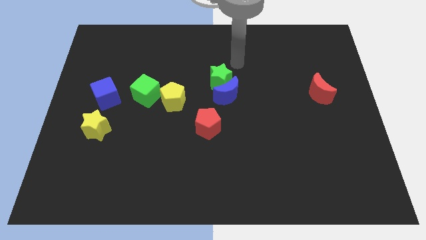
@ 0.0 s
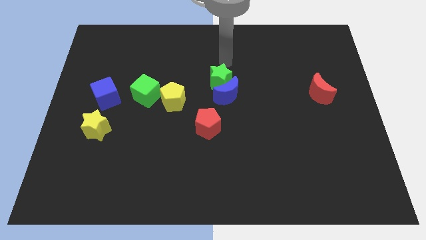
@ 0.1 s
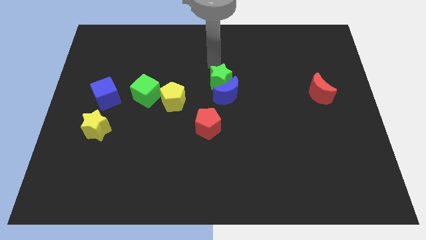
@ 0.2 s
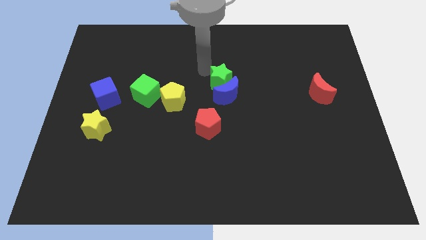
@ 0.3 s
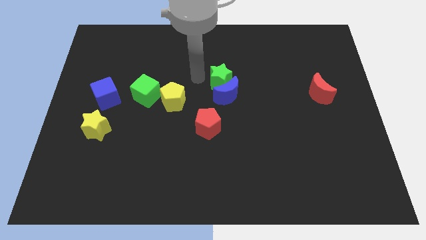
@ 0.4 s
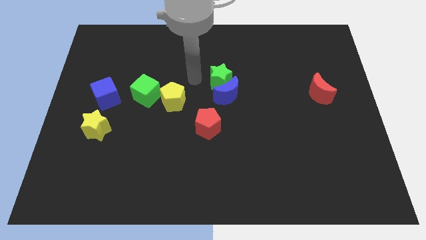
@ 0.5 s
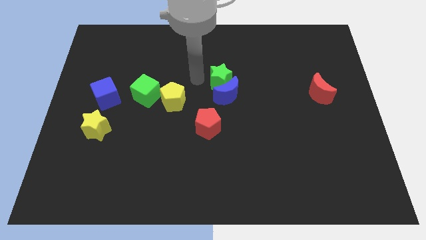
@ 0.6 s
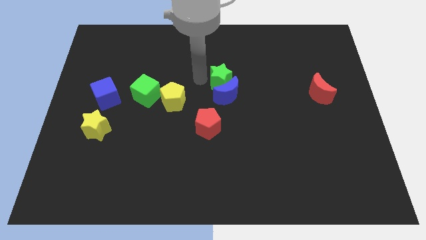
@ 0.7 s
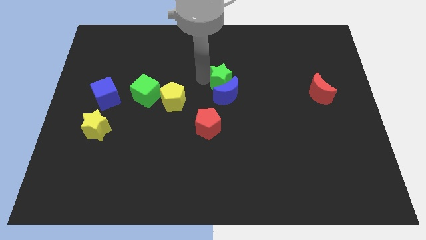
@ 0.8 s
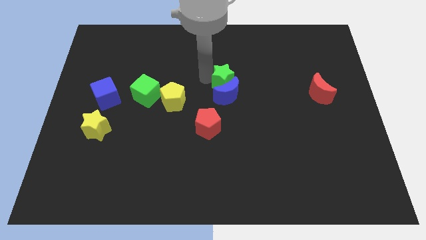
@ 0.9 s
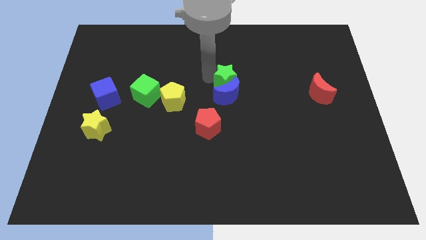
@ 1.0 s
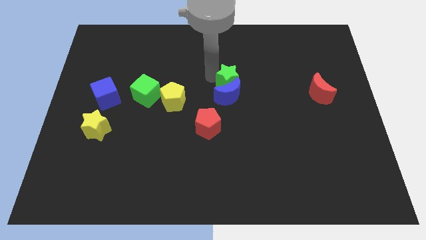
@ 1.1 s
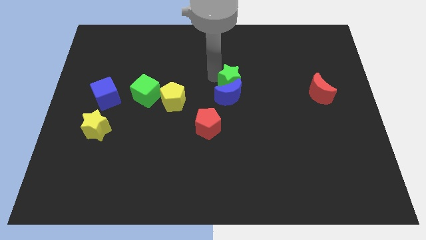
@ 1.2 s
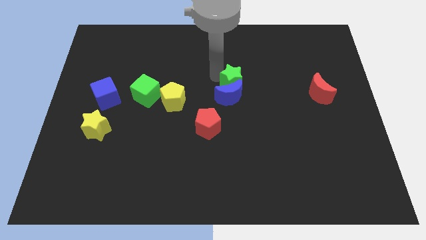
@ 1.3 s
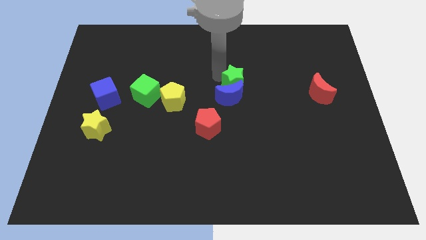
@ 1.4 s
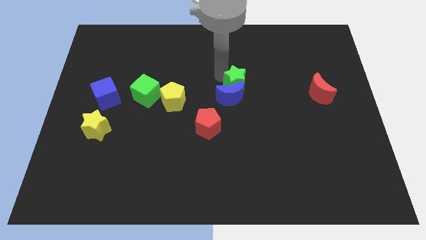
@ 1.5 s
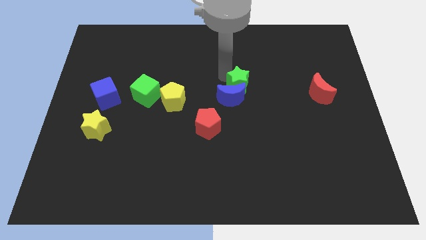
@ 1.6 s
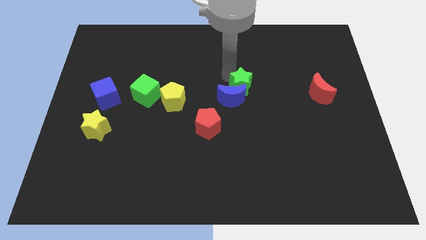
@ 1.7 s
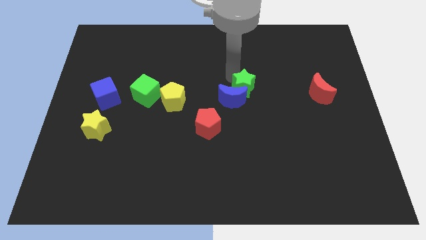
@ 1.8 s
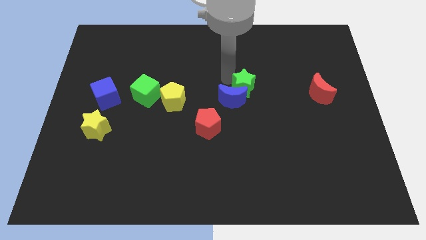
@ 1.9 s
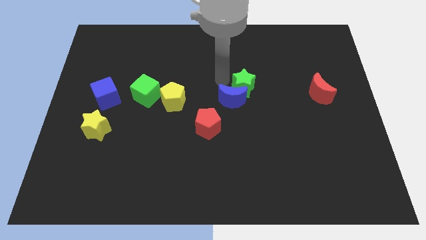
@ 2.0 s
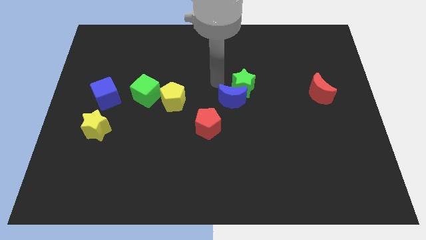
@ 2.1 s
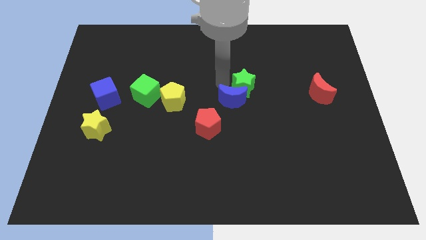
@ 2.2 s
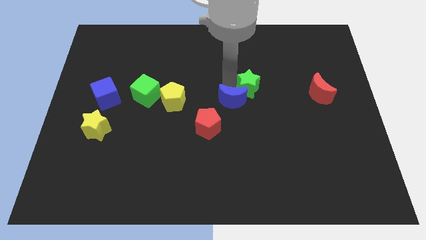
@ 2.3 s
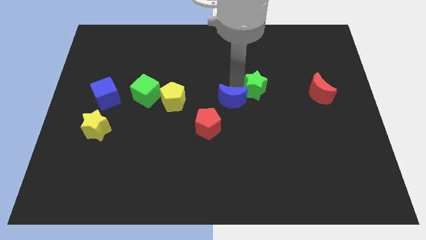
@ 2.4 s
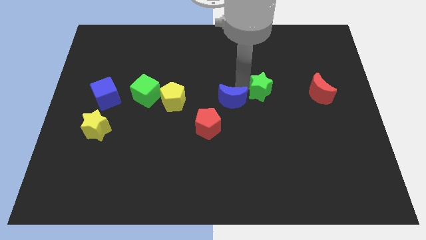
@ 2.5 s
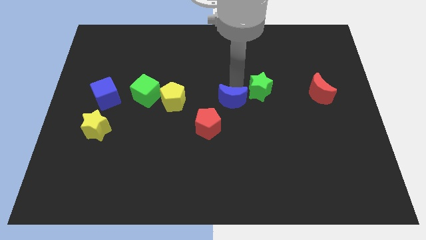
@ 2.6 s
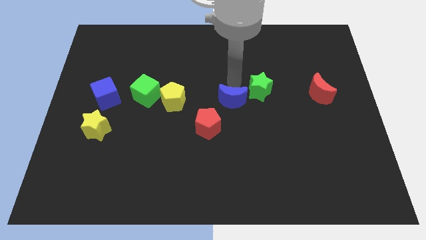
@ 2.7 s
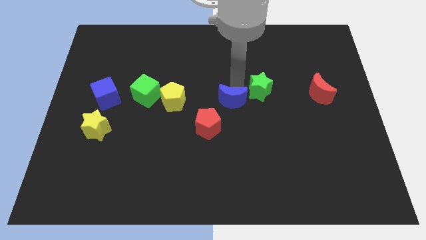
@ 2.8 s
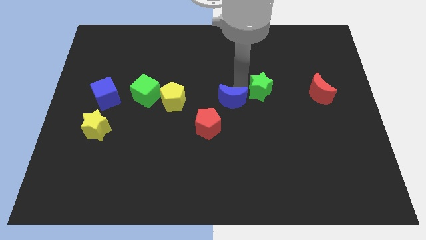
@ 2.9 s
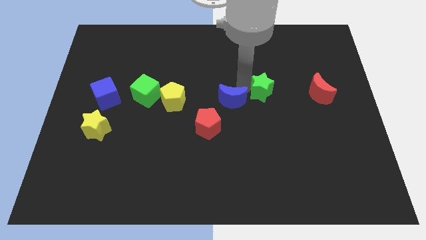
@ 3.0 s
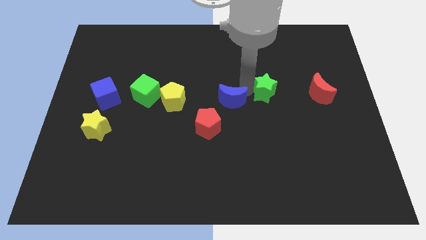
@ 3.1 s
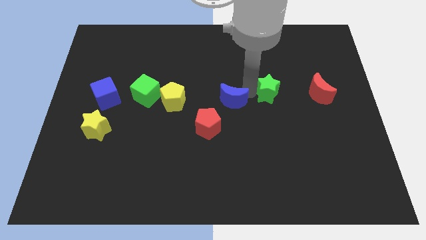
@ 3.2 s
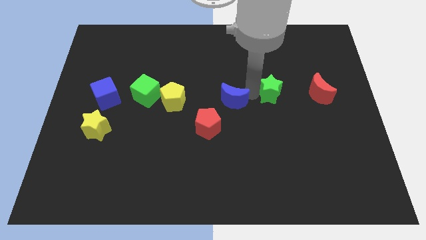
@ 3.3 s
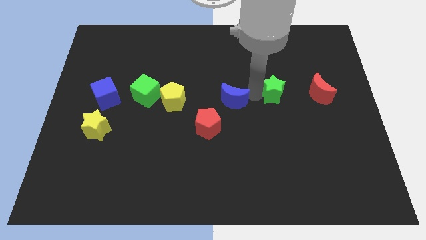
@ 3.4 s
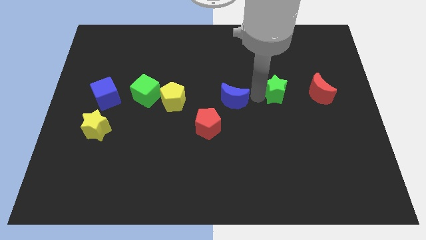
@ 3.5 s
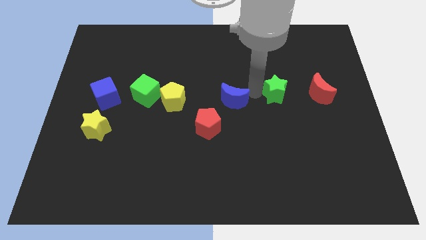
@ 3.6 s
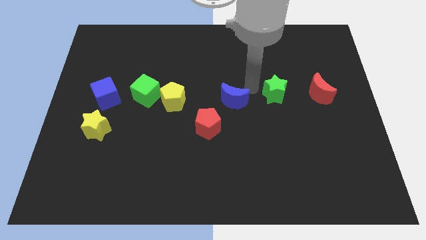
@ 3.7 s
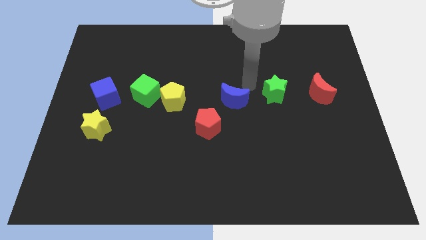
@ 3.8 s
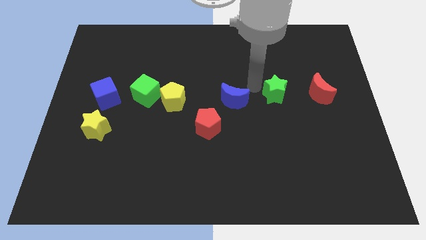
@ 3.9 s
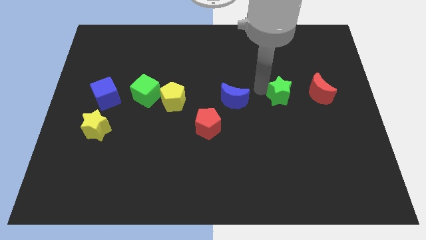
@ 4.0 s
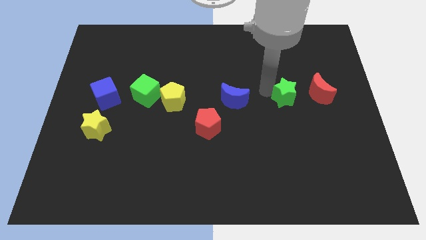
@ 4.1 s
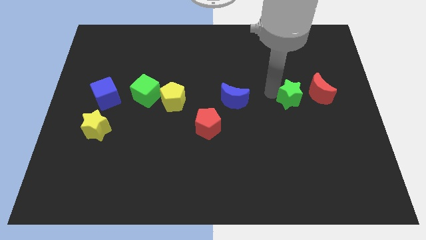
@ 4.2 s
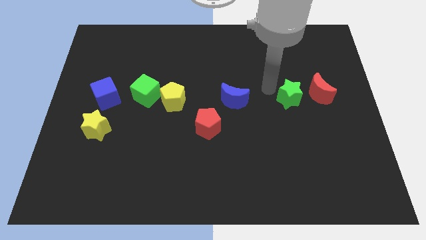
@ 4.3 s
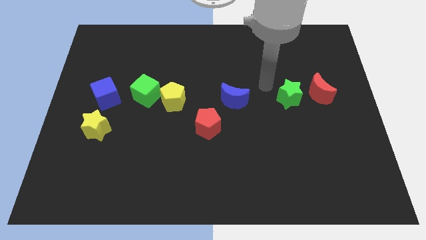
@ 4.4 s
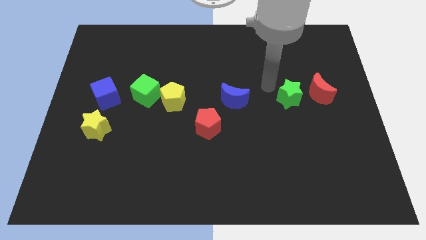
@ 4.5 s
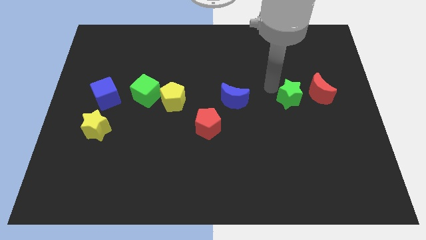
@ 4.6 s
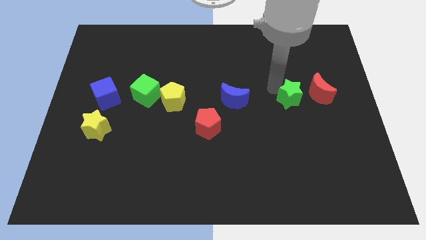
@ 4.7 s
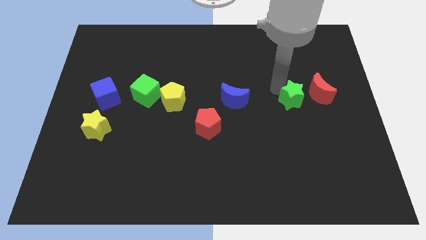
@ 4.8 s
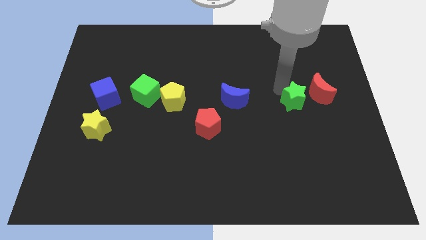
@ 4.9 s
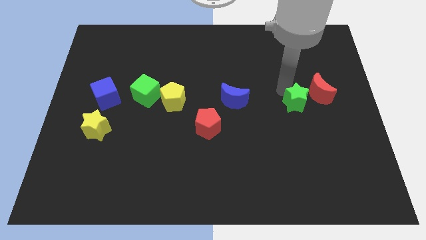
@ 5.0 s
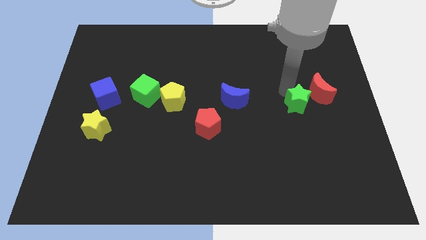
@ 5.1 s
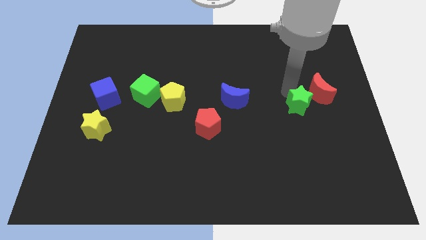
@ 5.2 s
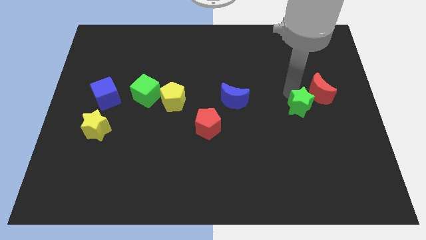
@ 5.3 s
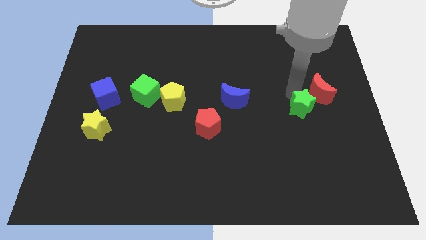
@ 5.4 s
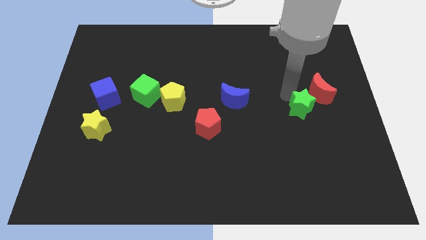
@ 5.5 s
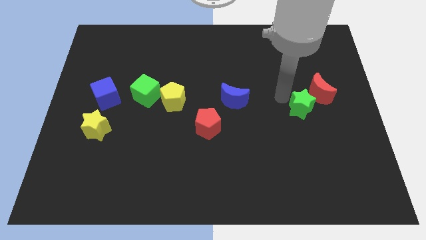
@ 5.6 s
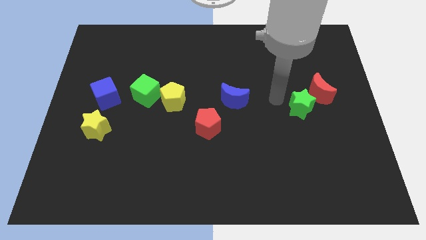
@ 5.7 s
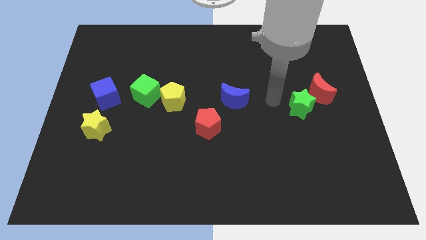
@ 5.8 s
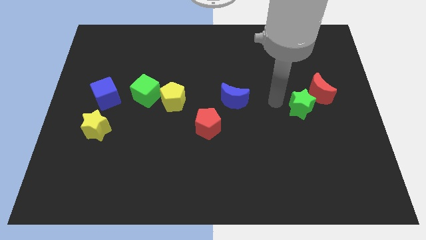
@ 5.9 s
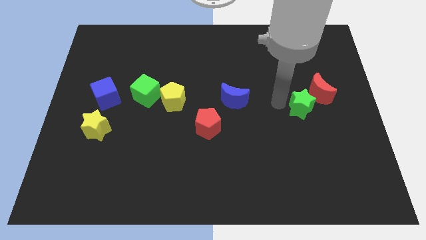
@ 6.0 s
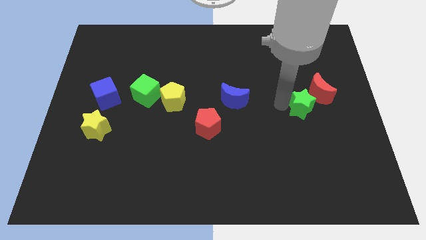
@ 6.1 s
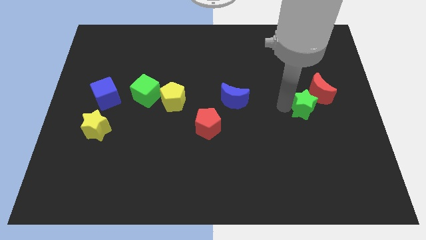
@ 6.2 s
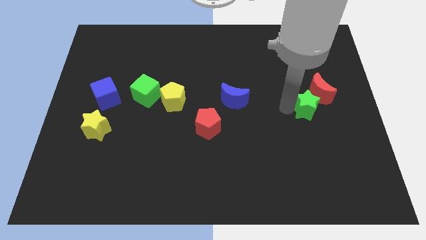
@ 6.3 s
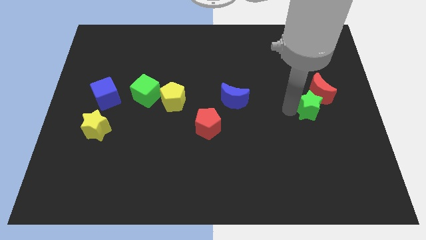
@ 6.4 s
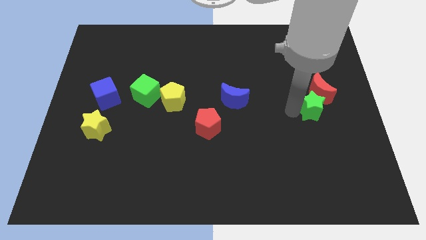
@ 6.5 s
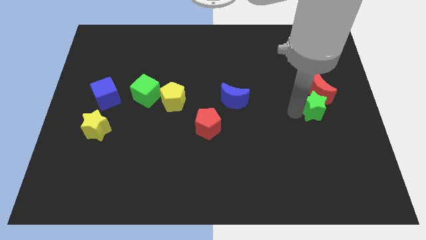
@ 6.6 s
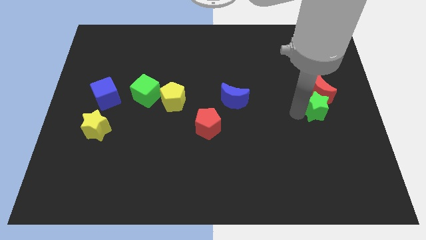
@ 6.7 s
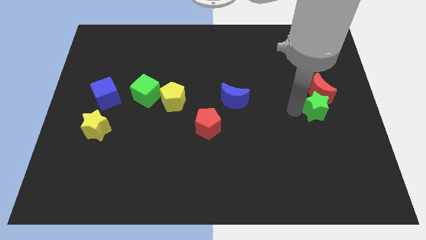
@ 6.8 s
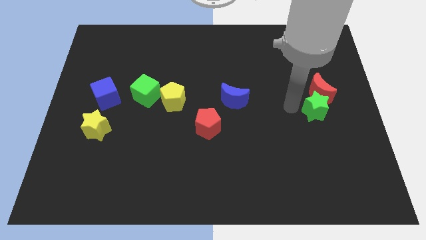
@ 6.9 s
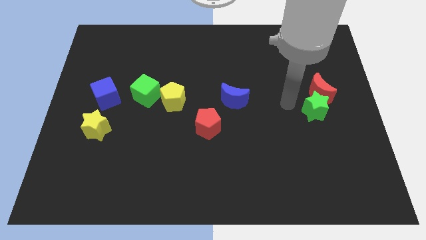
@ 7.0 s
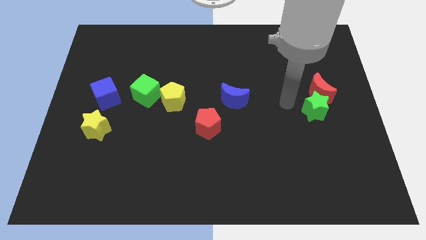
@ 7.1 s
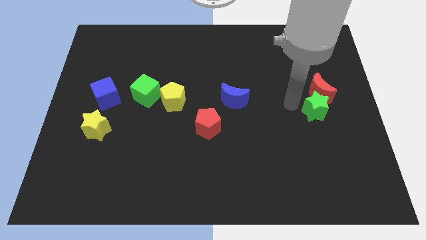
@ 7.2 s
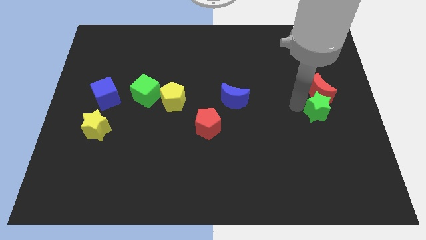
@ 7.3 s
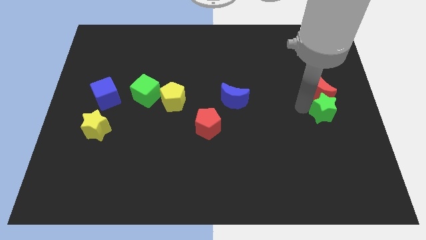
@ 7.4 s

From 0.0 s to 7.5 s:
push the green star to the right side of the board
